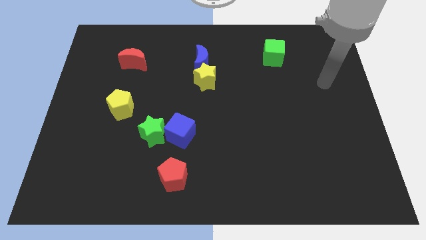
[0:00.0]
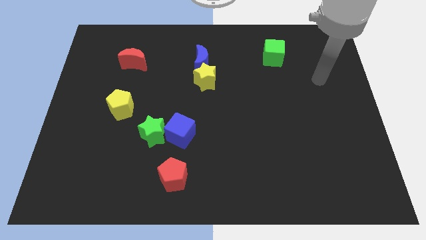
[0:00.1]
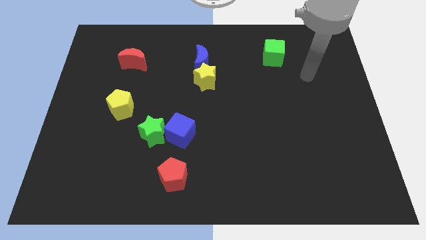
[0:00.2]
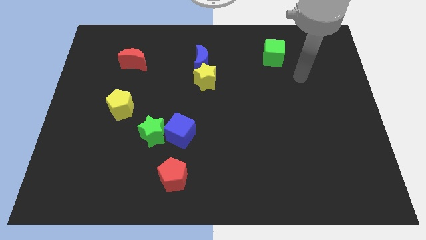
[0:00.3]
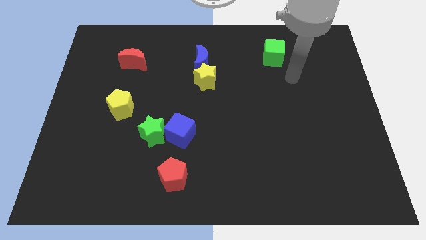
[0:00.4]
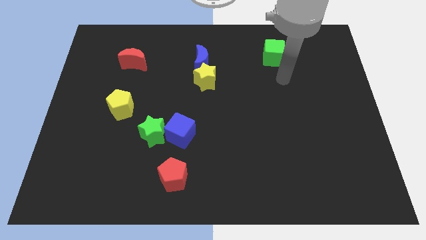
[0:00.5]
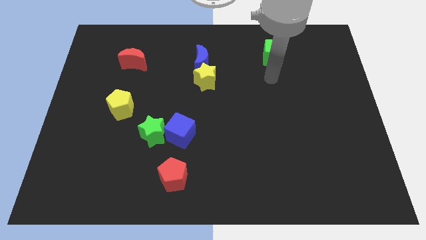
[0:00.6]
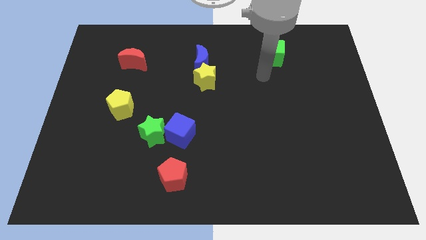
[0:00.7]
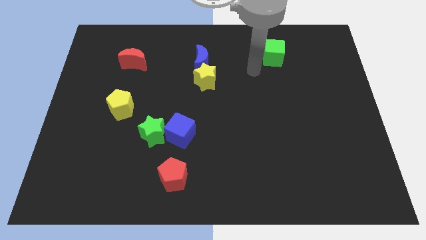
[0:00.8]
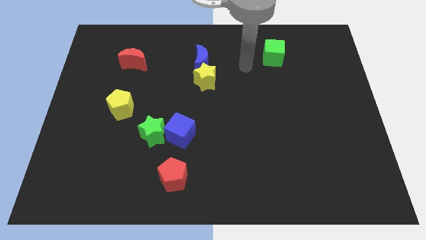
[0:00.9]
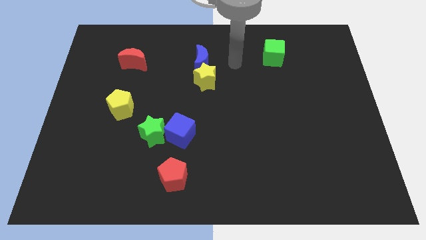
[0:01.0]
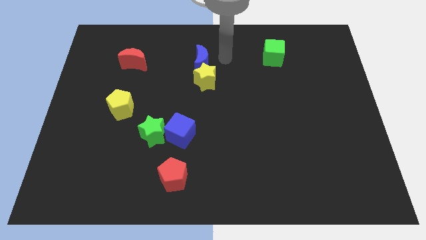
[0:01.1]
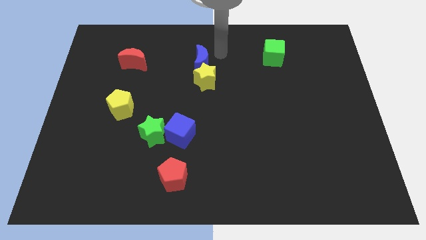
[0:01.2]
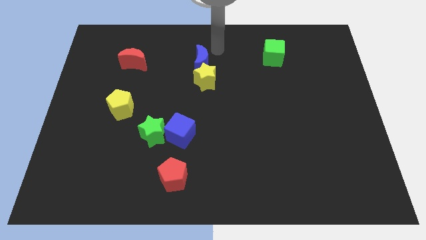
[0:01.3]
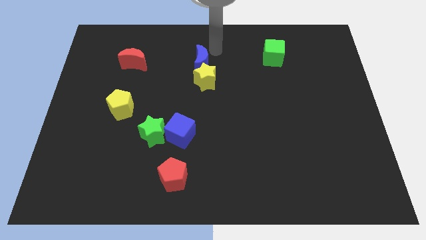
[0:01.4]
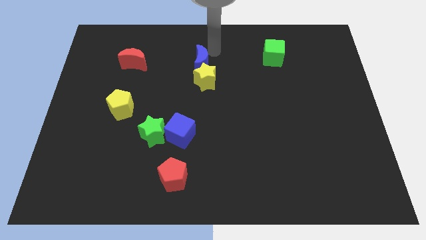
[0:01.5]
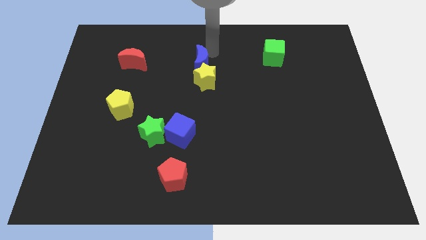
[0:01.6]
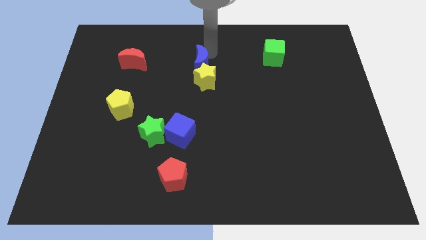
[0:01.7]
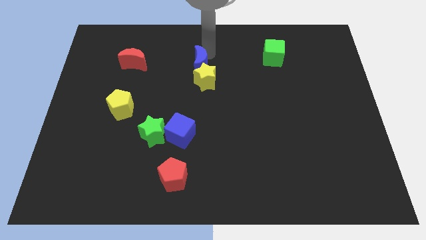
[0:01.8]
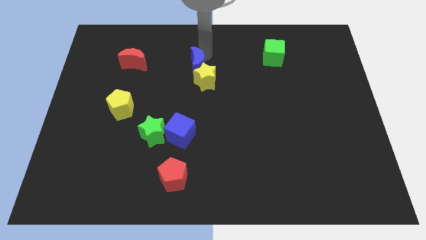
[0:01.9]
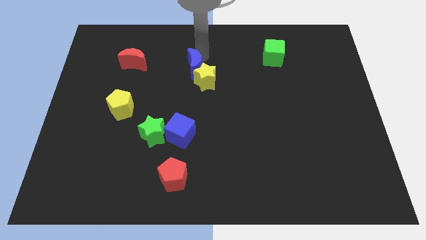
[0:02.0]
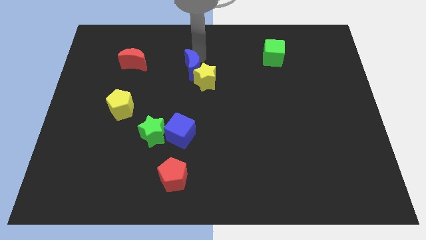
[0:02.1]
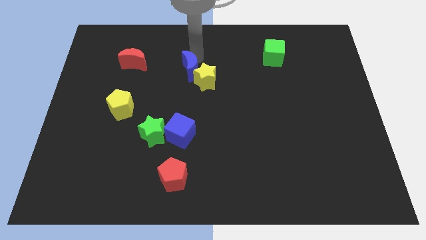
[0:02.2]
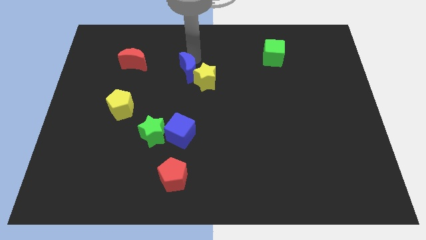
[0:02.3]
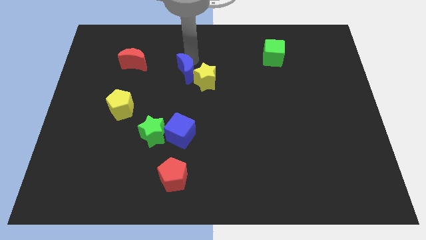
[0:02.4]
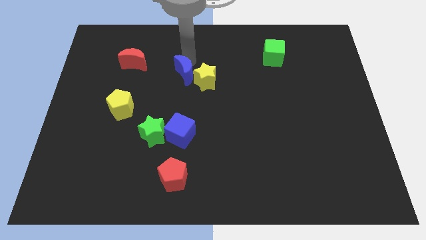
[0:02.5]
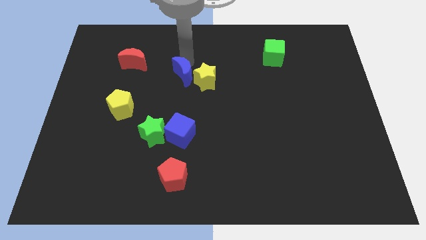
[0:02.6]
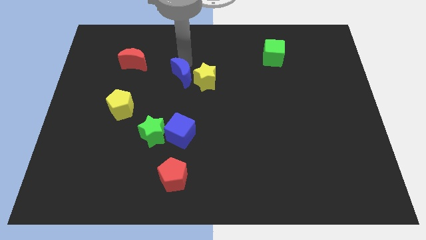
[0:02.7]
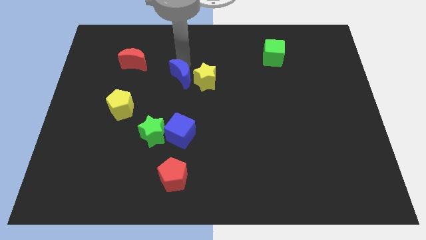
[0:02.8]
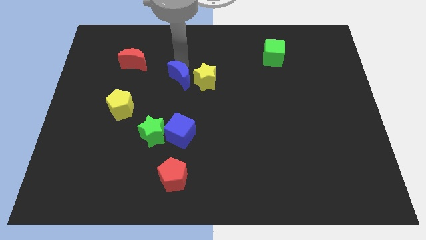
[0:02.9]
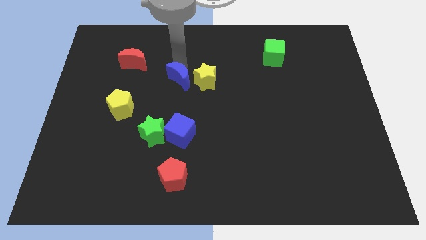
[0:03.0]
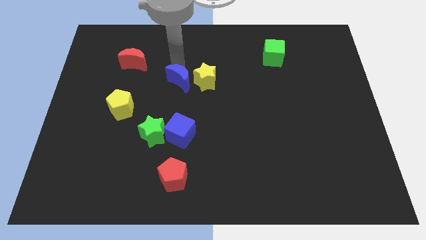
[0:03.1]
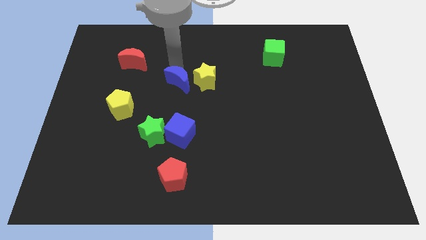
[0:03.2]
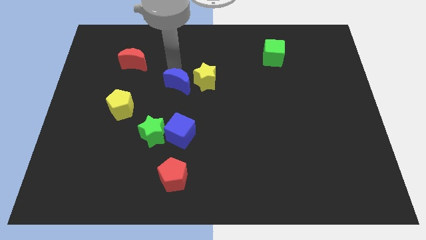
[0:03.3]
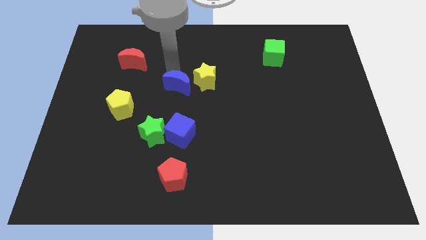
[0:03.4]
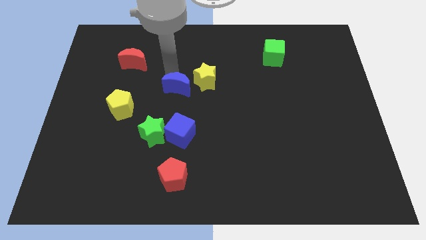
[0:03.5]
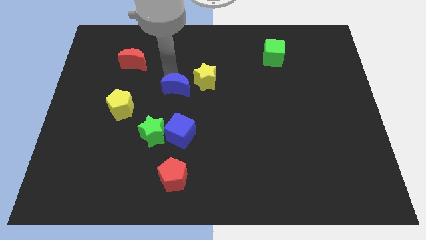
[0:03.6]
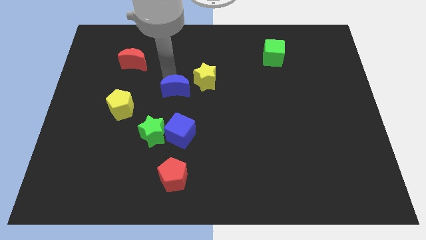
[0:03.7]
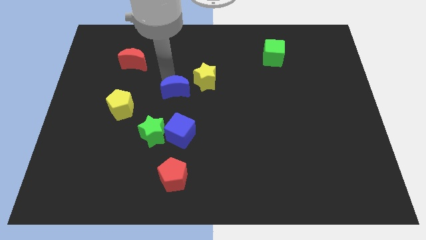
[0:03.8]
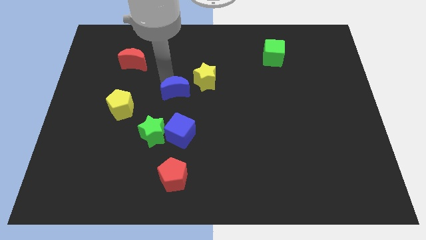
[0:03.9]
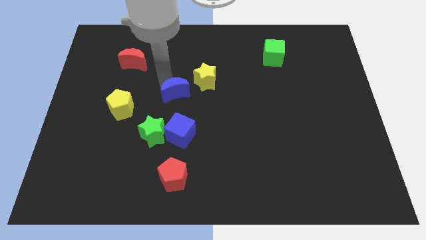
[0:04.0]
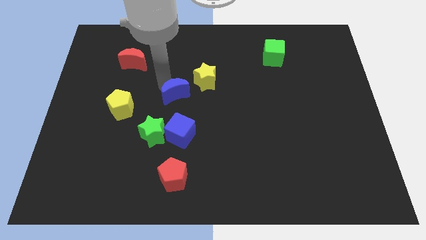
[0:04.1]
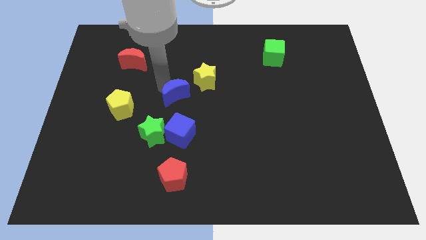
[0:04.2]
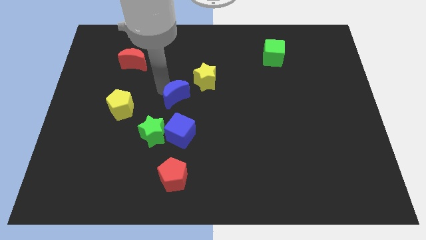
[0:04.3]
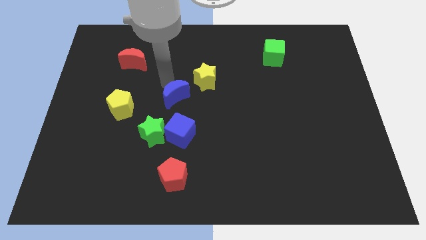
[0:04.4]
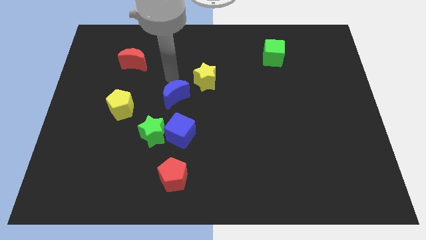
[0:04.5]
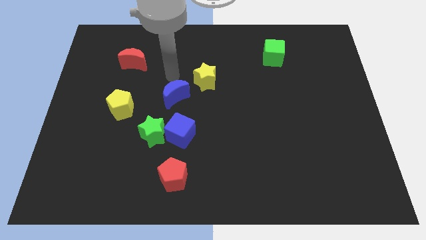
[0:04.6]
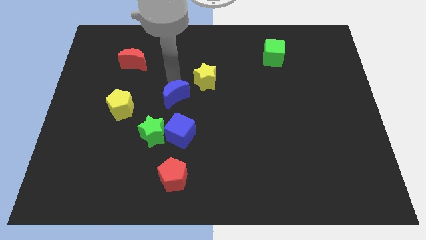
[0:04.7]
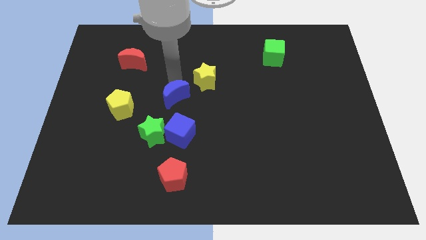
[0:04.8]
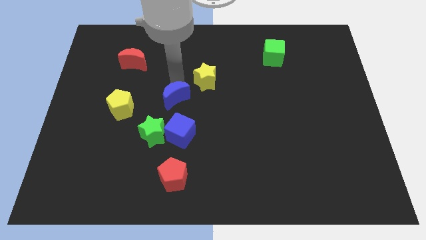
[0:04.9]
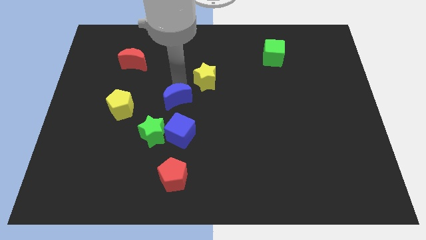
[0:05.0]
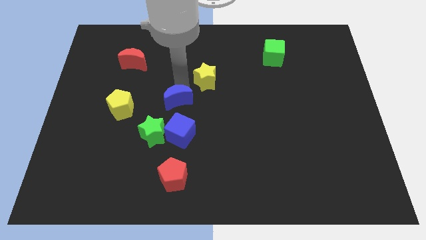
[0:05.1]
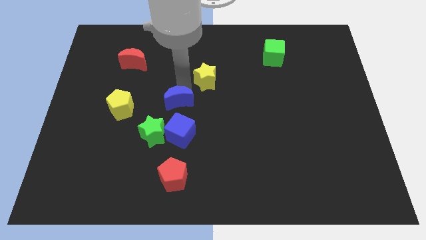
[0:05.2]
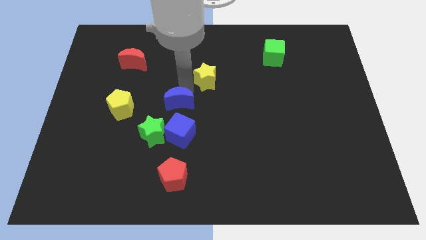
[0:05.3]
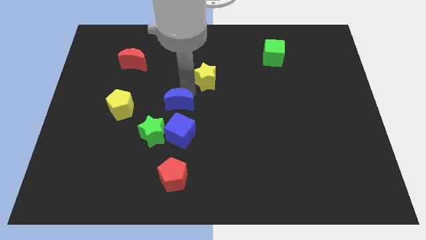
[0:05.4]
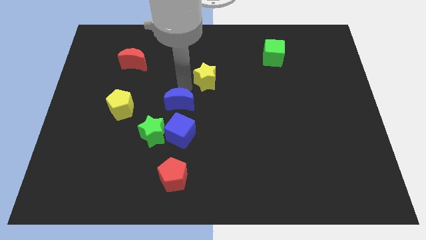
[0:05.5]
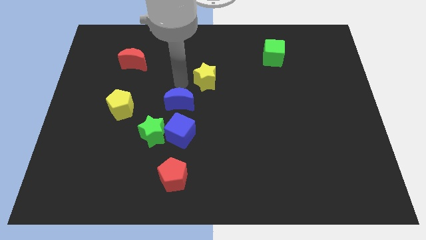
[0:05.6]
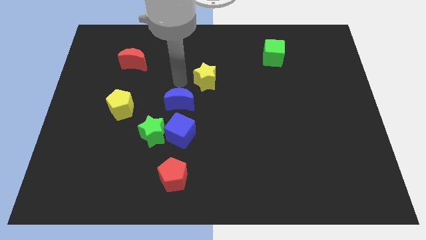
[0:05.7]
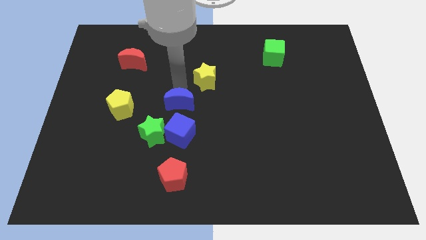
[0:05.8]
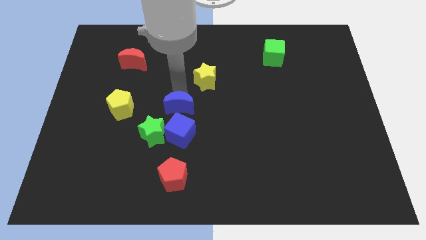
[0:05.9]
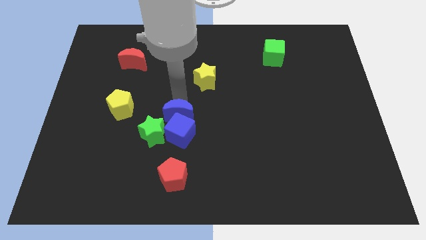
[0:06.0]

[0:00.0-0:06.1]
put the blue moon to the blue cube

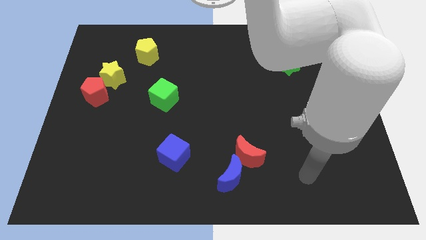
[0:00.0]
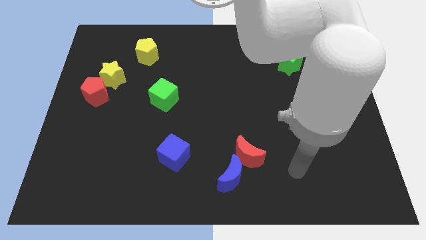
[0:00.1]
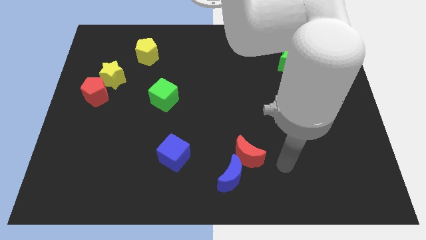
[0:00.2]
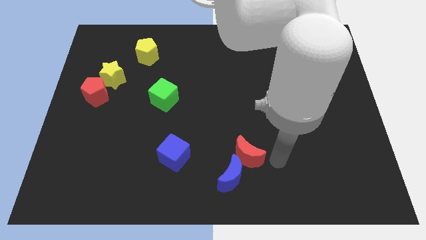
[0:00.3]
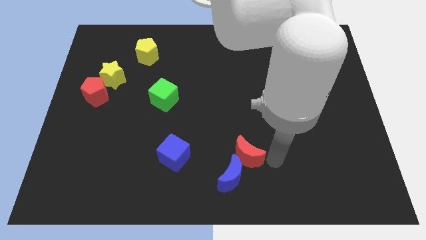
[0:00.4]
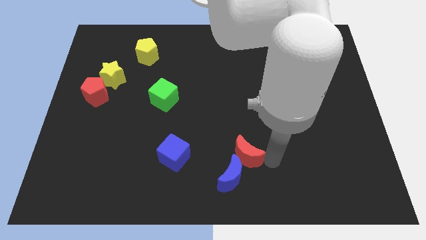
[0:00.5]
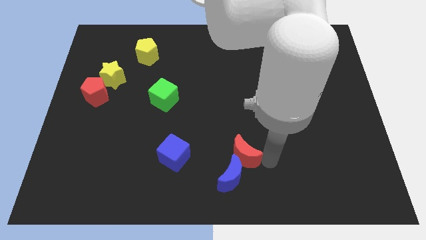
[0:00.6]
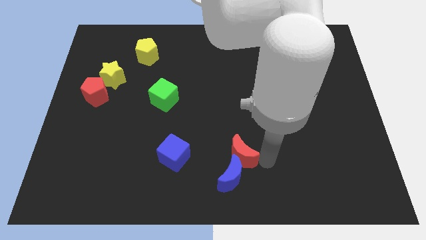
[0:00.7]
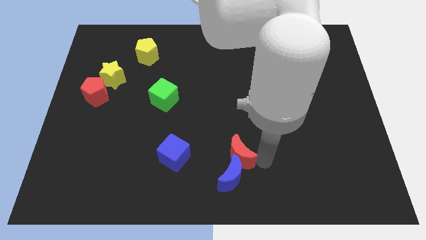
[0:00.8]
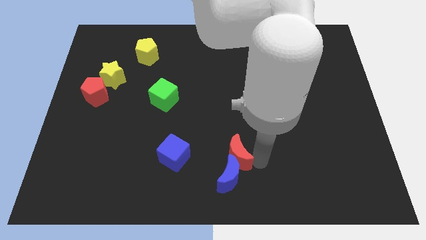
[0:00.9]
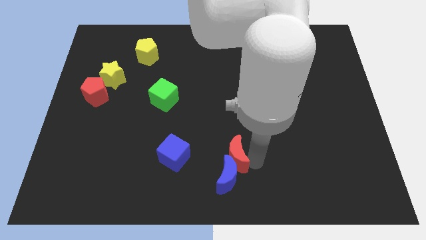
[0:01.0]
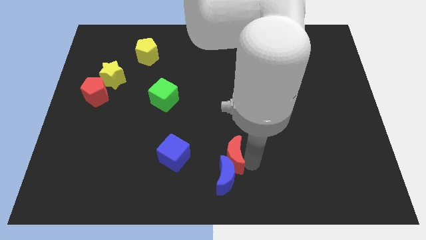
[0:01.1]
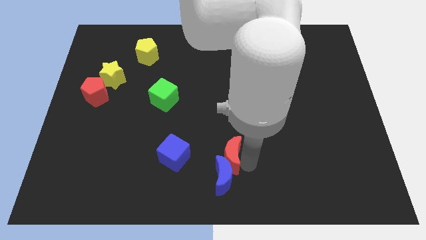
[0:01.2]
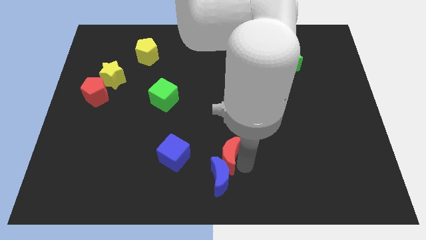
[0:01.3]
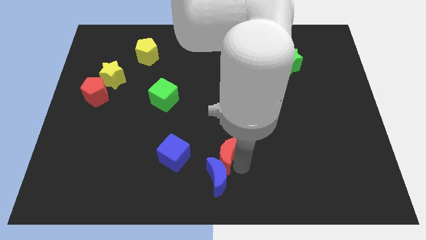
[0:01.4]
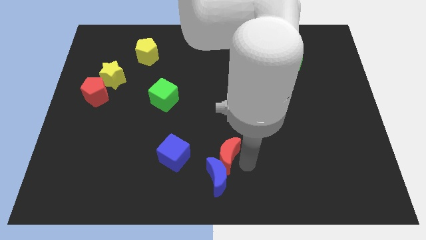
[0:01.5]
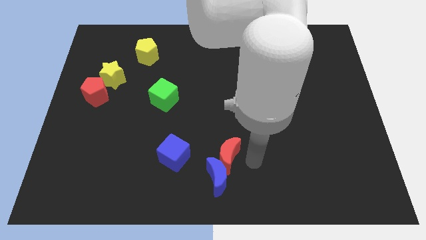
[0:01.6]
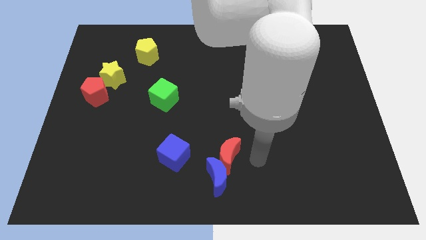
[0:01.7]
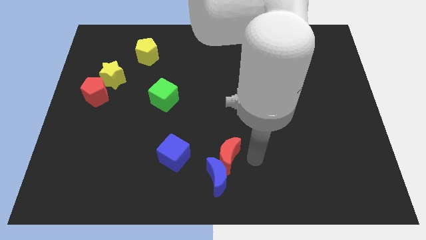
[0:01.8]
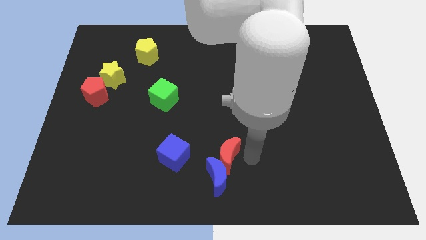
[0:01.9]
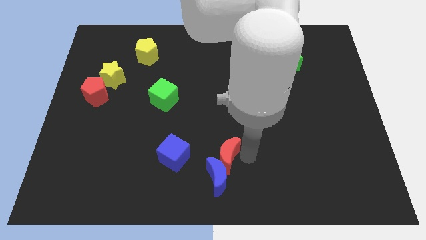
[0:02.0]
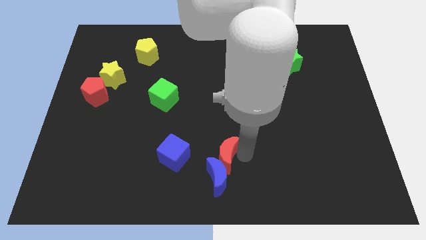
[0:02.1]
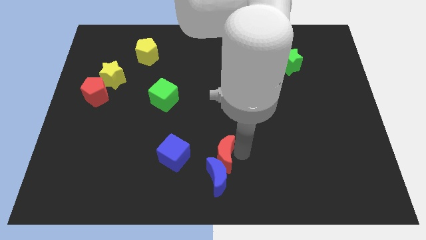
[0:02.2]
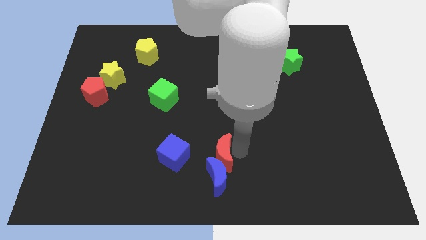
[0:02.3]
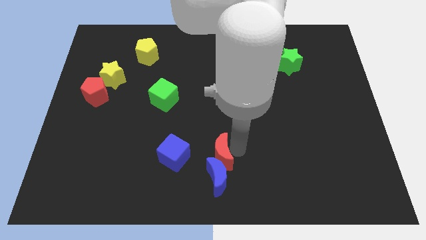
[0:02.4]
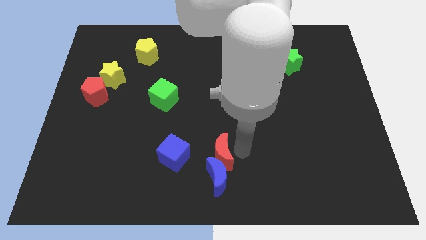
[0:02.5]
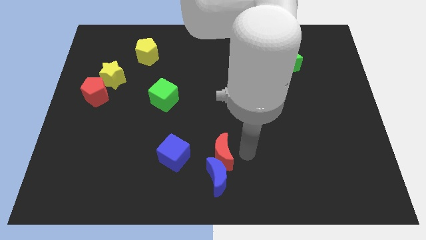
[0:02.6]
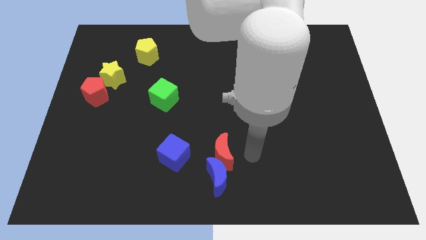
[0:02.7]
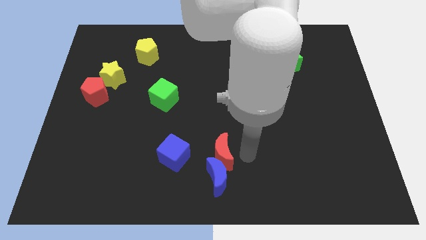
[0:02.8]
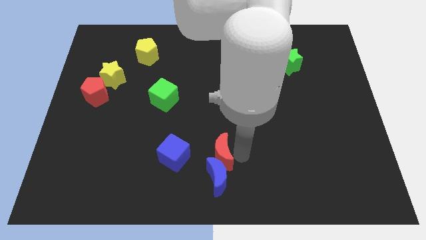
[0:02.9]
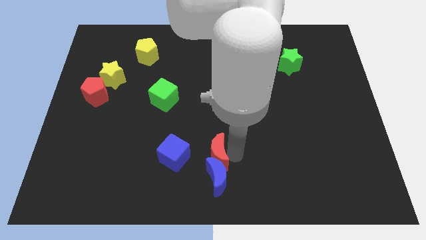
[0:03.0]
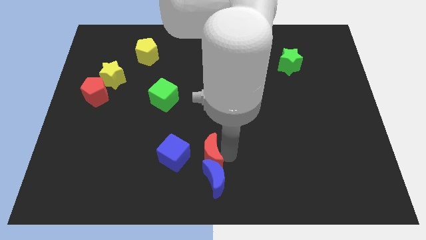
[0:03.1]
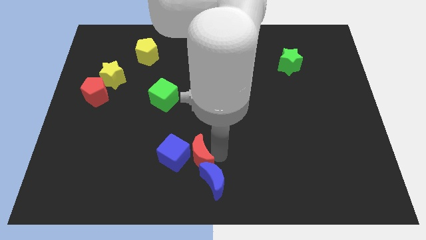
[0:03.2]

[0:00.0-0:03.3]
move the red moon next to the blue cube
